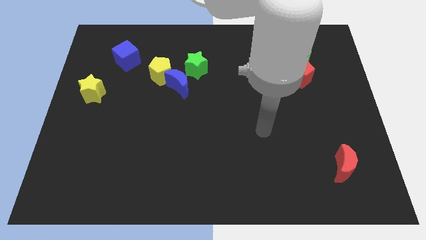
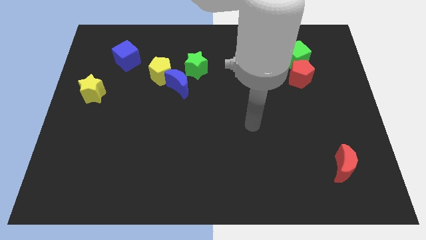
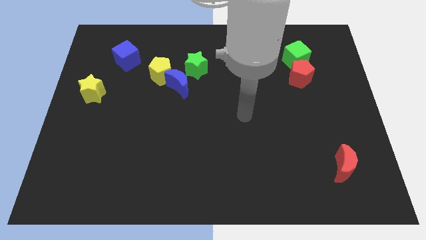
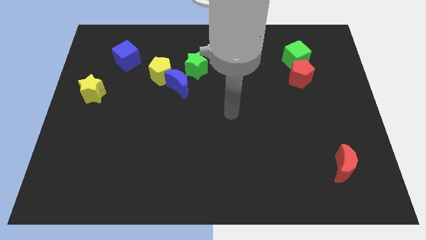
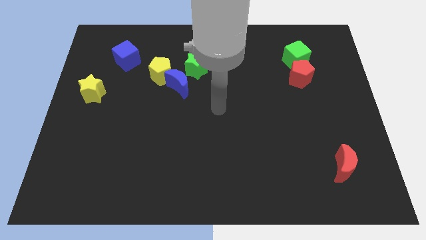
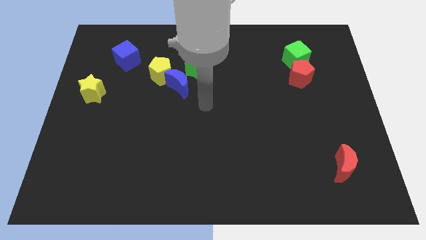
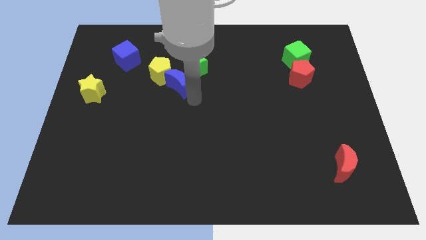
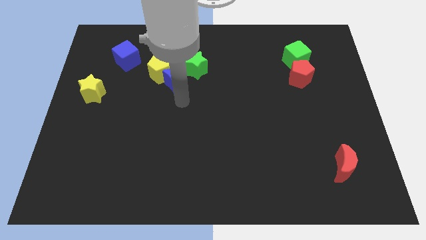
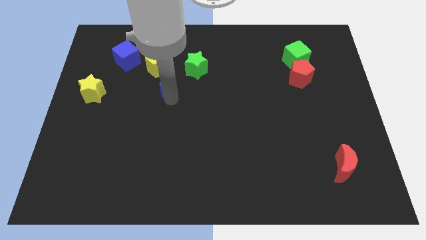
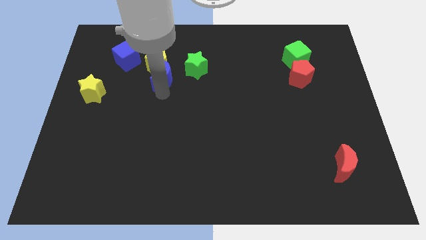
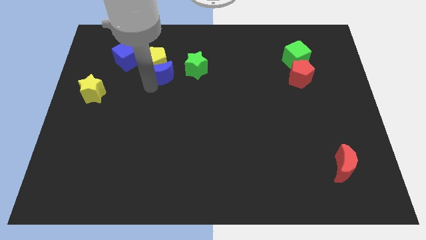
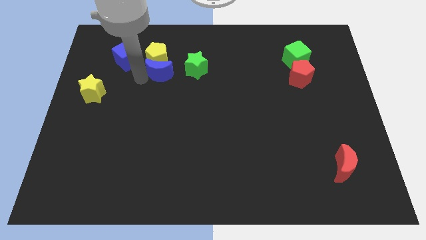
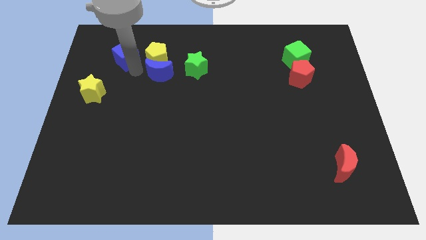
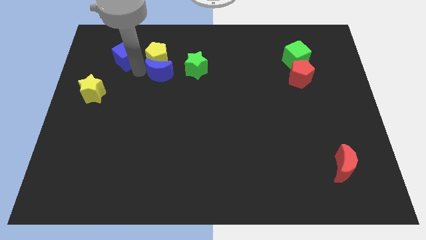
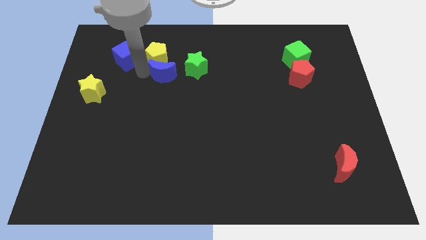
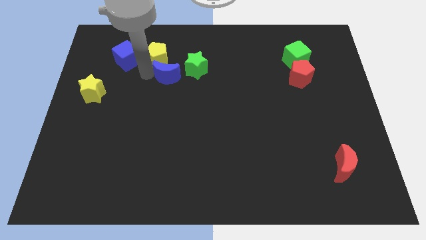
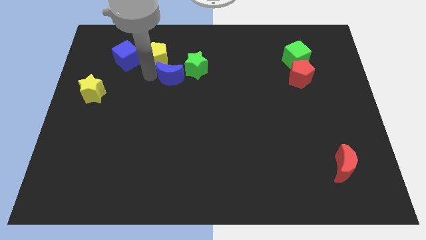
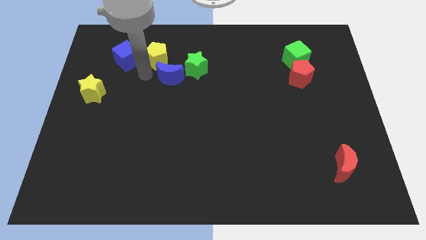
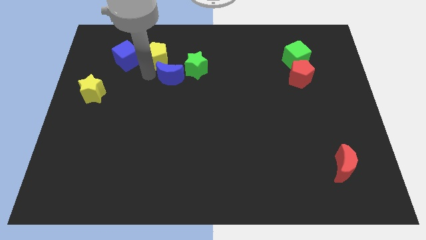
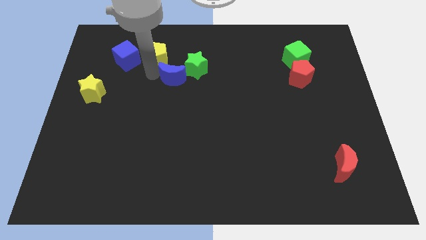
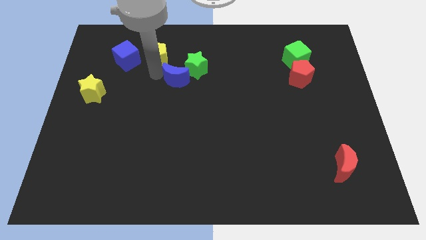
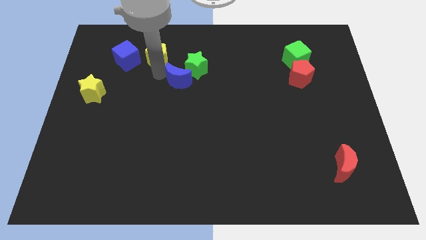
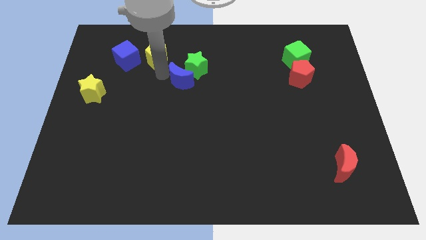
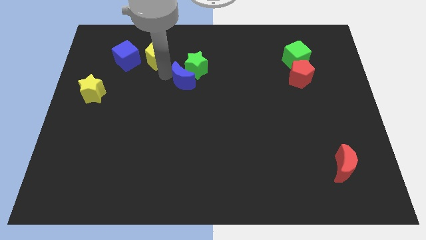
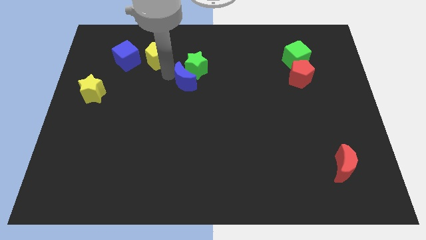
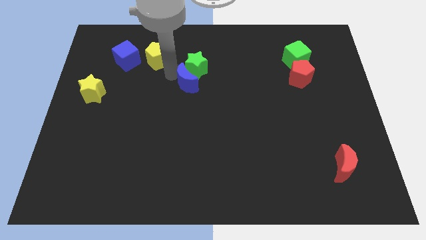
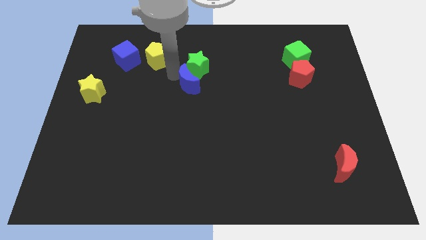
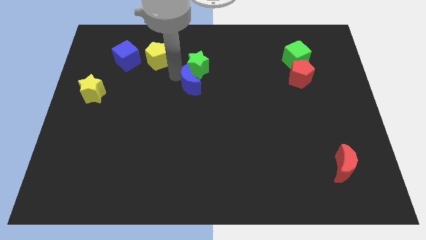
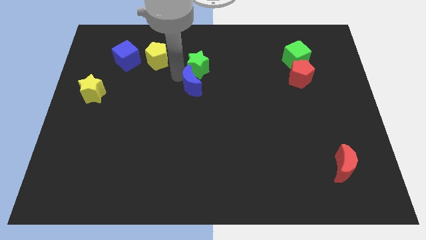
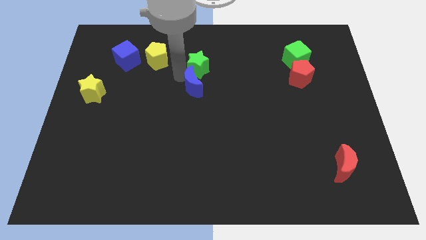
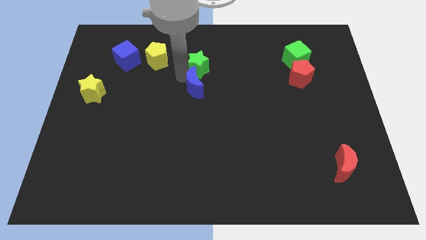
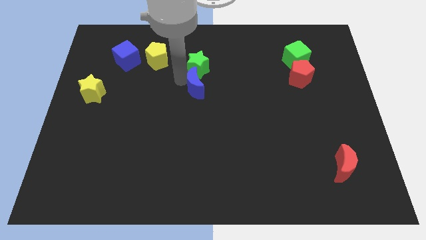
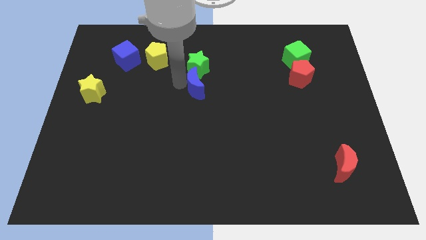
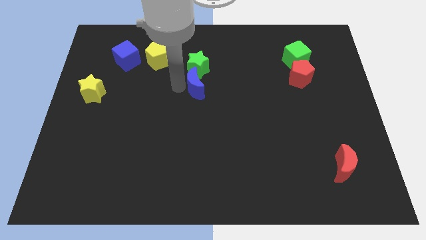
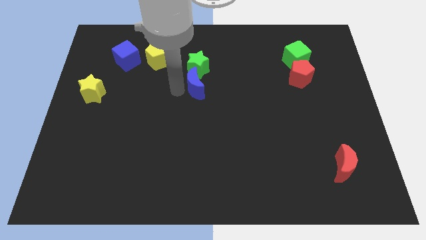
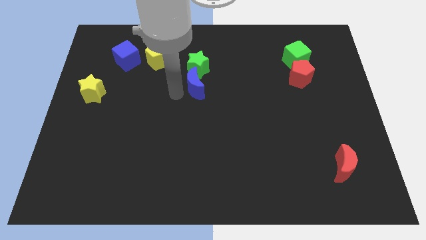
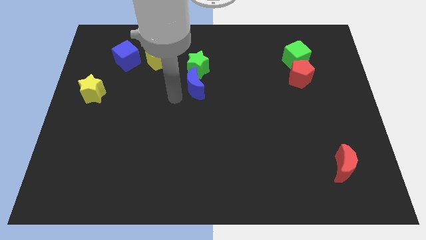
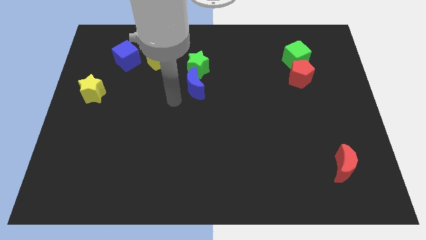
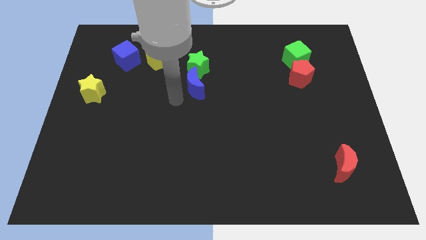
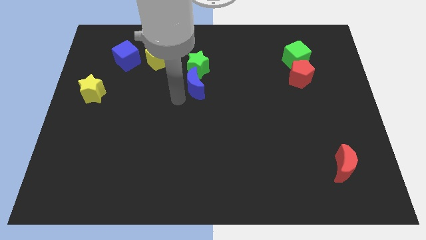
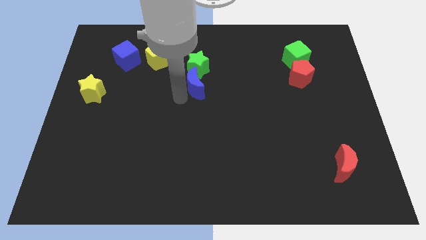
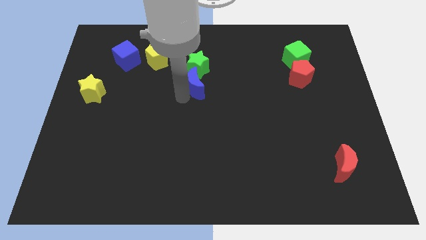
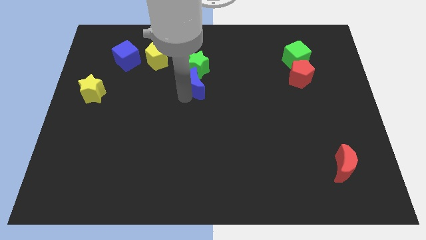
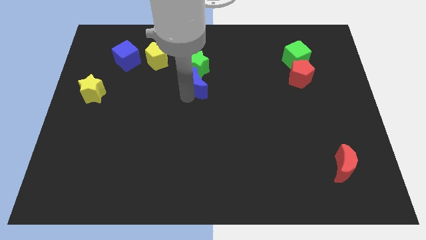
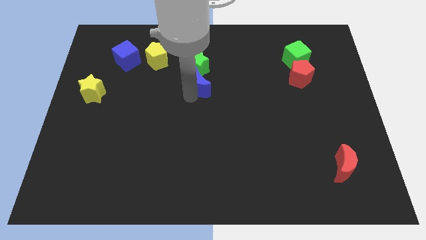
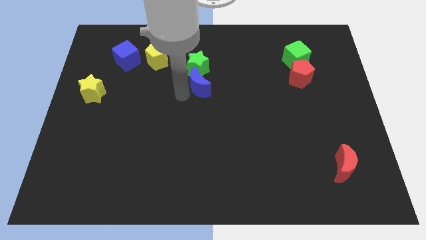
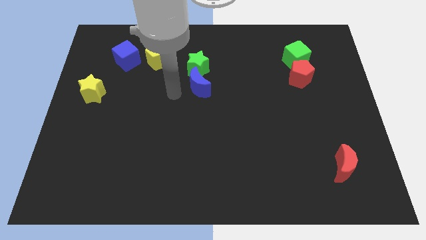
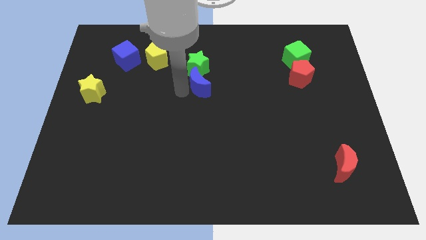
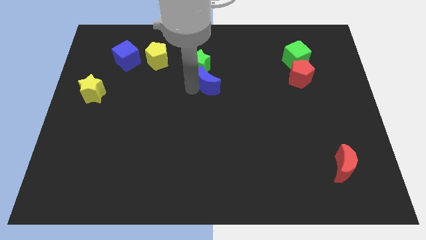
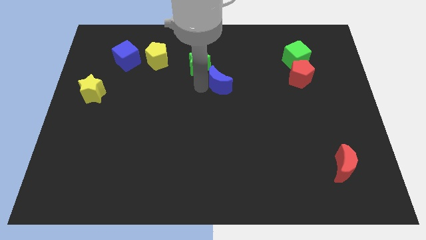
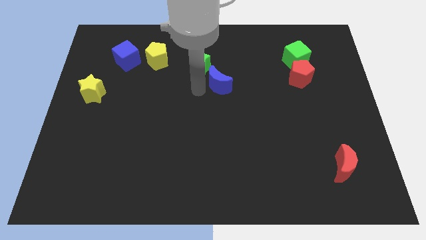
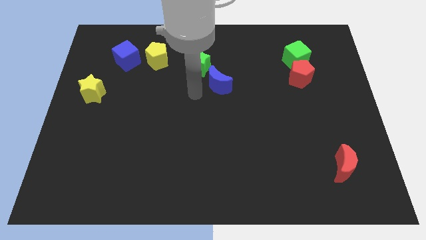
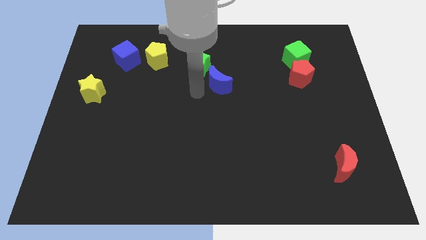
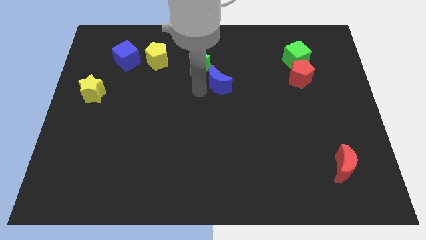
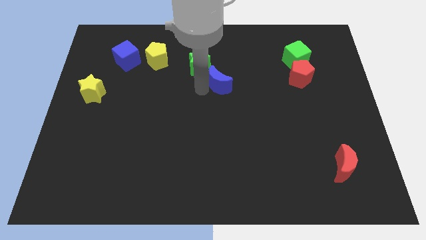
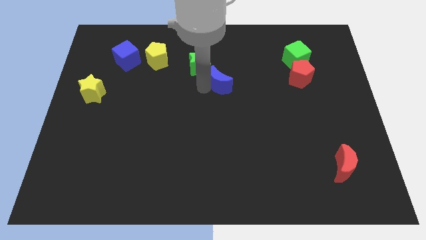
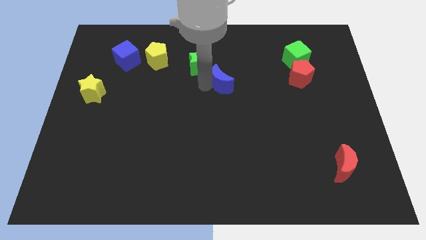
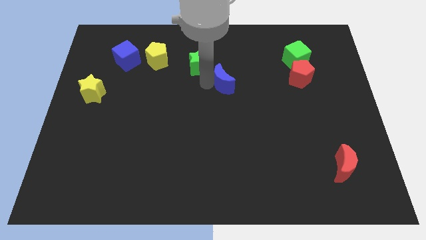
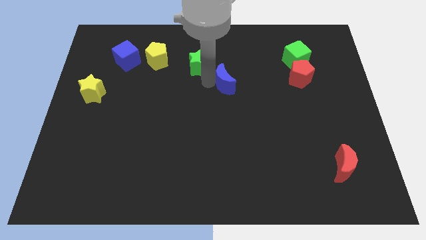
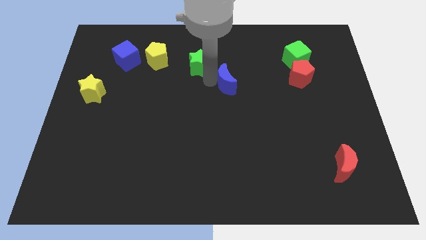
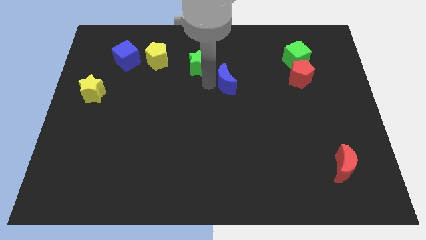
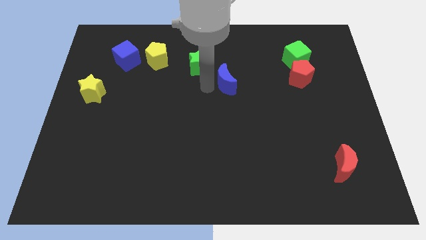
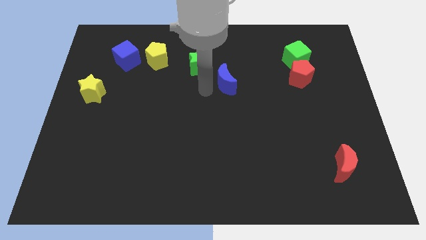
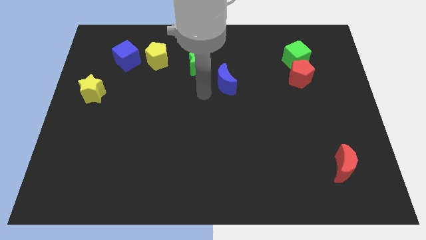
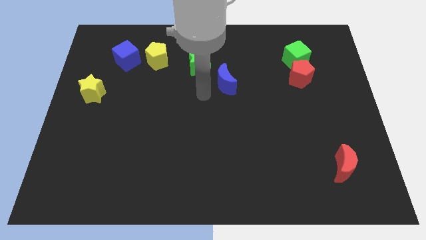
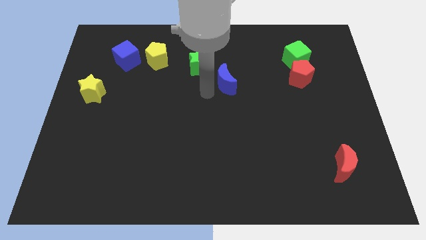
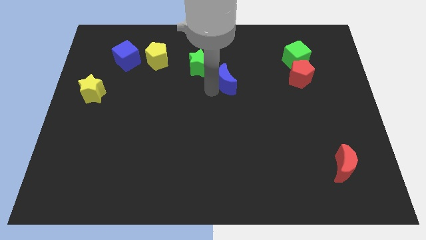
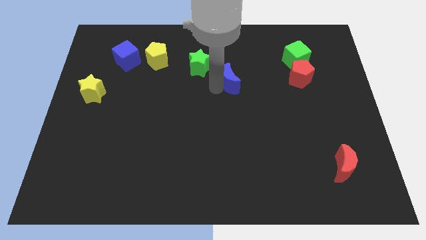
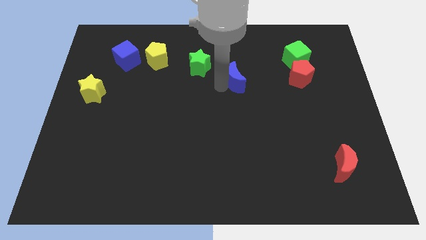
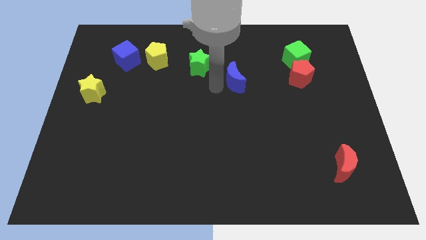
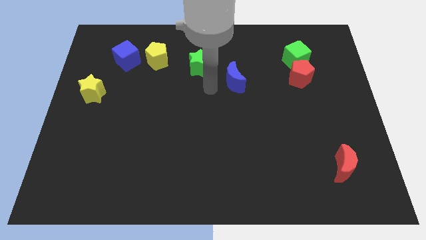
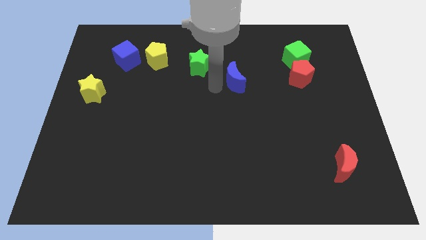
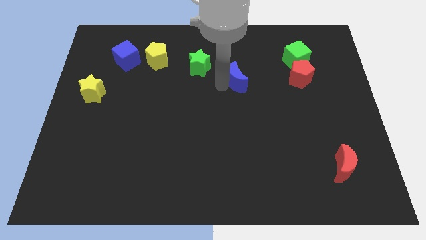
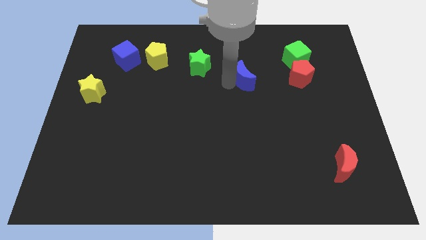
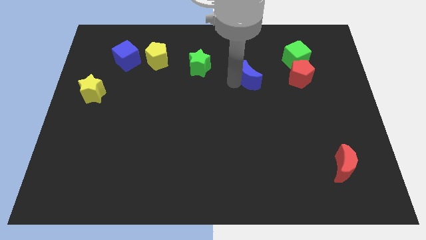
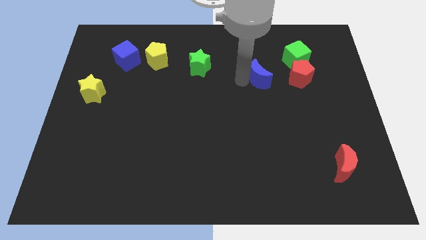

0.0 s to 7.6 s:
put the blue moon diagonally down and to the left of the green cube

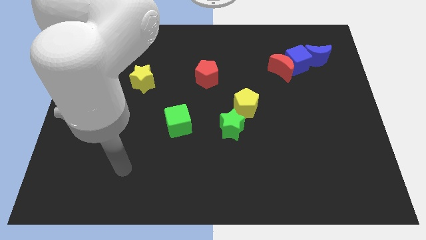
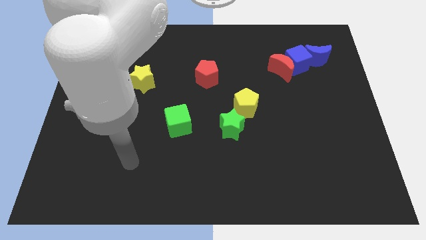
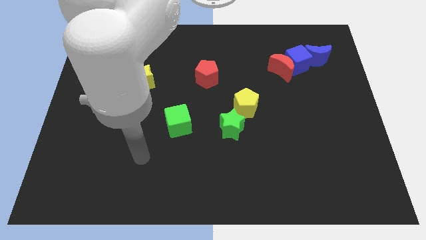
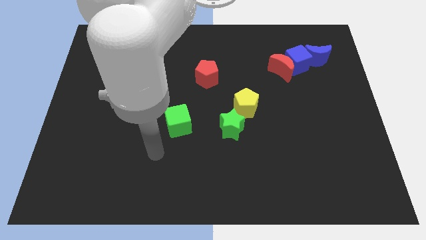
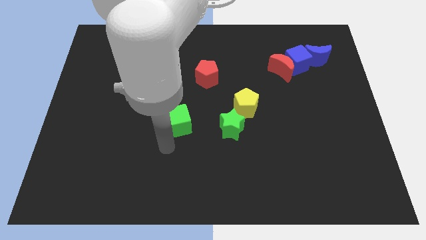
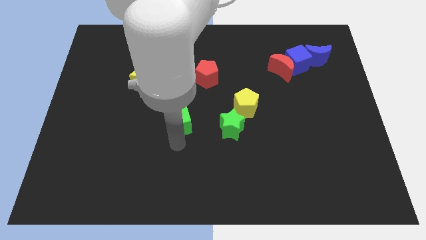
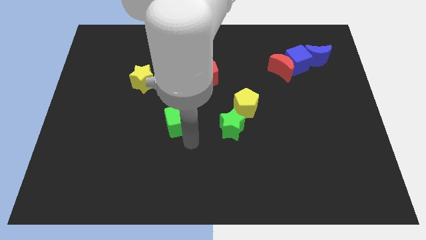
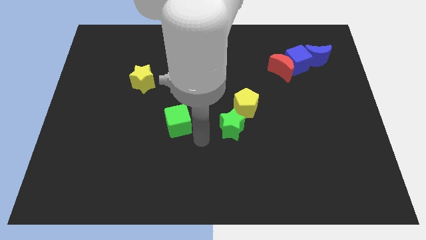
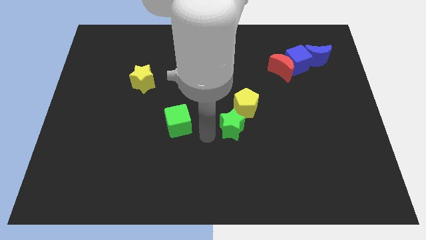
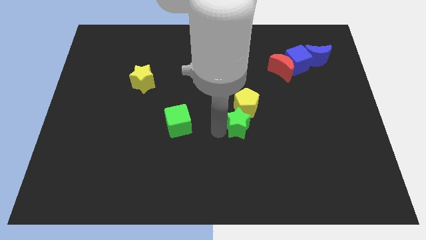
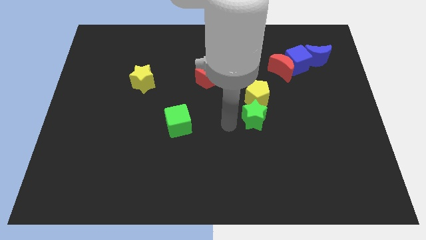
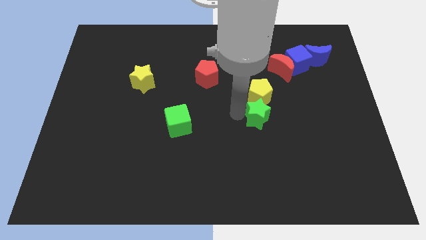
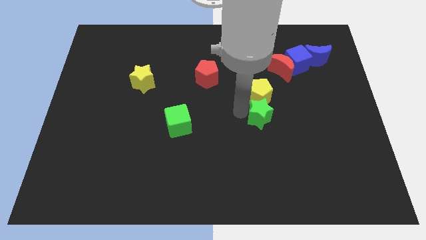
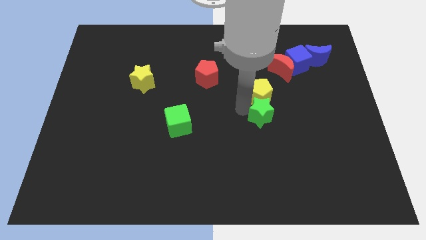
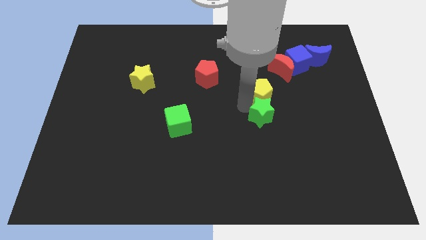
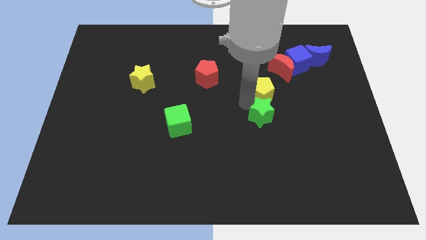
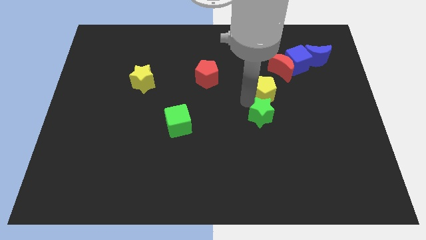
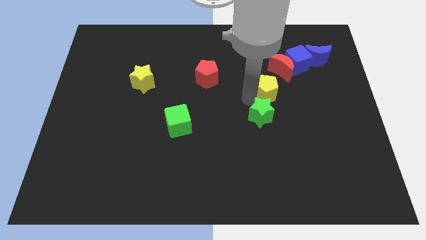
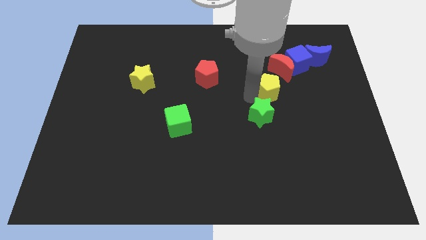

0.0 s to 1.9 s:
push the yellow pentagon to the bottom left side of the blue cube
